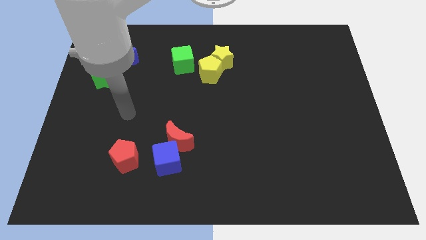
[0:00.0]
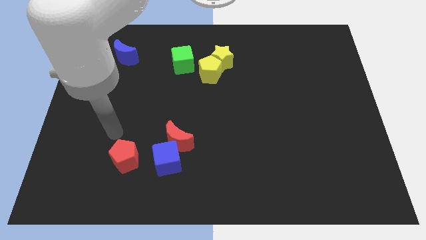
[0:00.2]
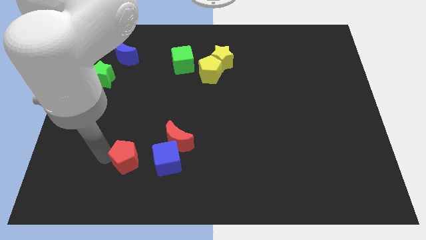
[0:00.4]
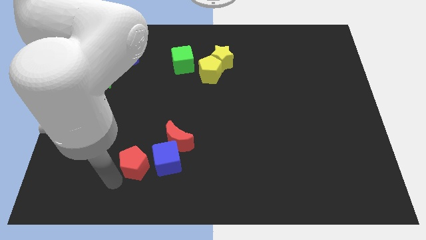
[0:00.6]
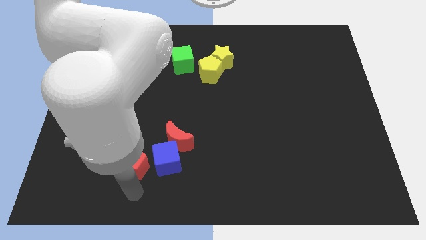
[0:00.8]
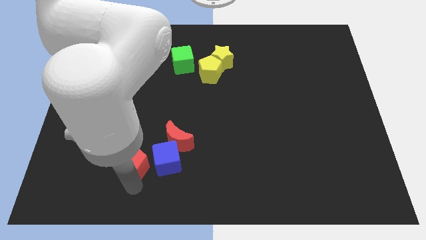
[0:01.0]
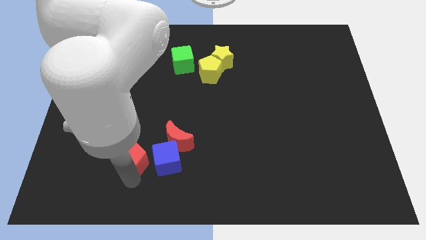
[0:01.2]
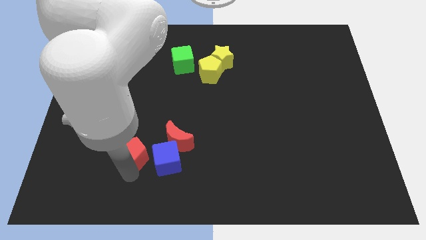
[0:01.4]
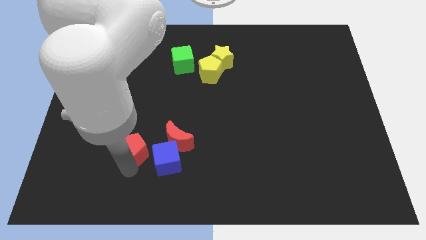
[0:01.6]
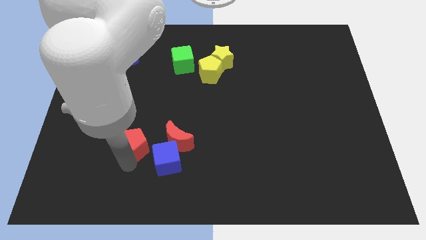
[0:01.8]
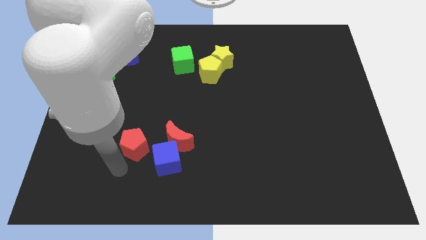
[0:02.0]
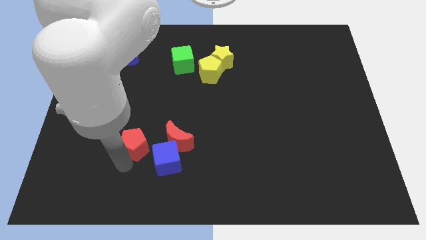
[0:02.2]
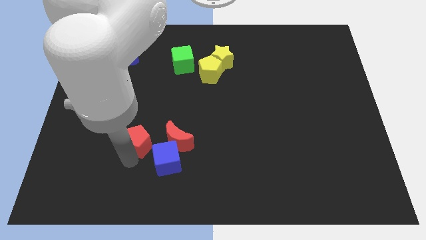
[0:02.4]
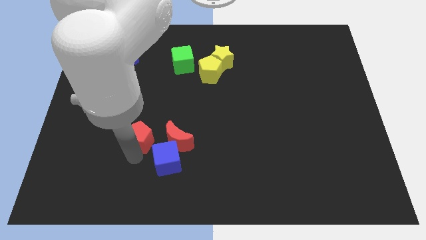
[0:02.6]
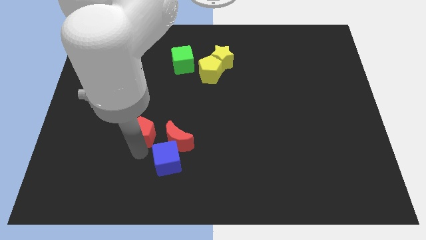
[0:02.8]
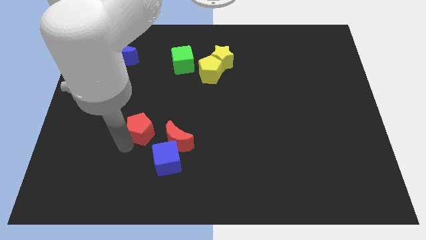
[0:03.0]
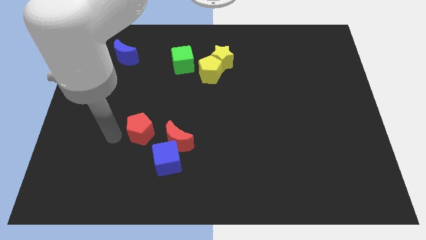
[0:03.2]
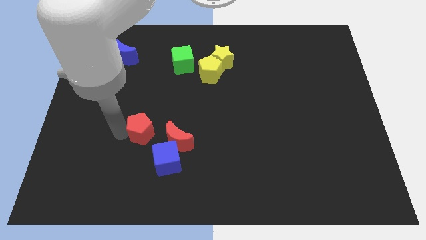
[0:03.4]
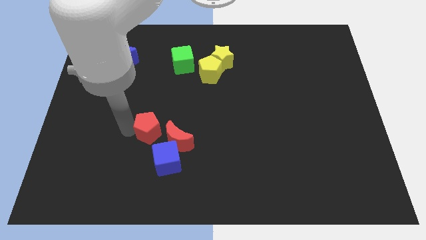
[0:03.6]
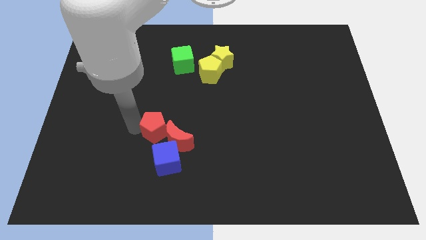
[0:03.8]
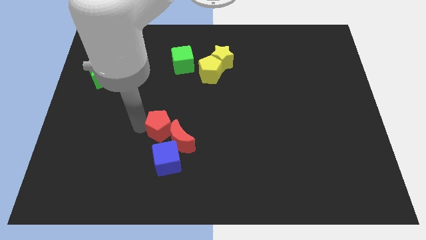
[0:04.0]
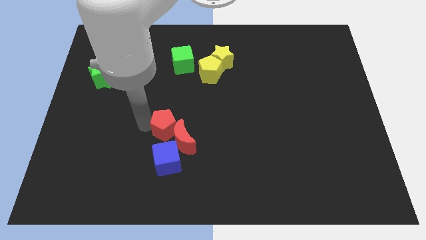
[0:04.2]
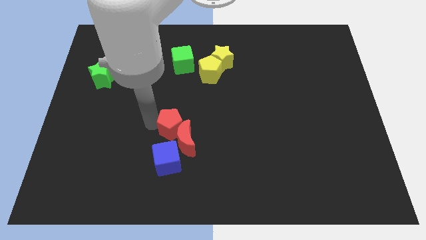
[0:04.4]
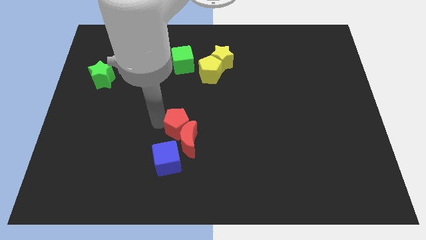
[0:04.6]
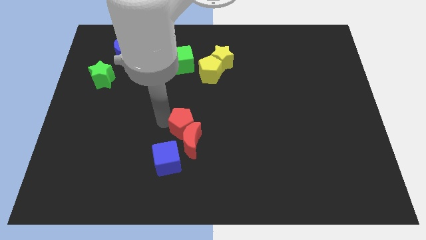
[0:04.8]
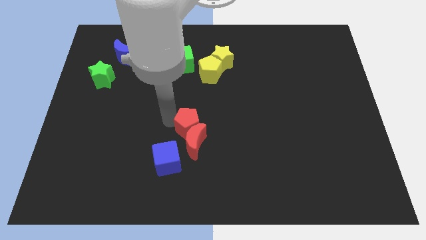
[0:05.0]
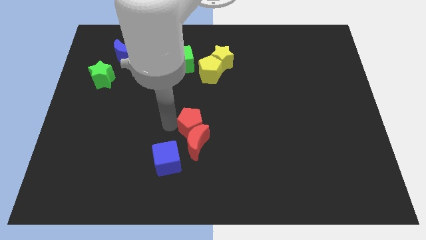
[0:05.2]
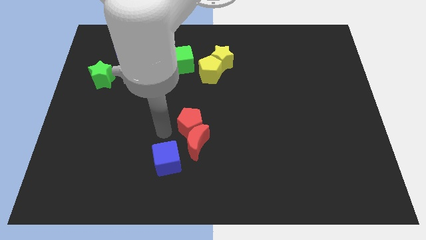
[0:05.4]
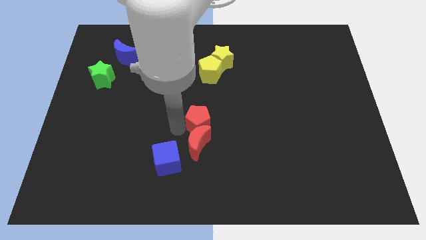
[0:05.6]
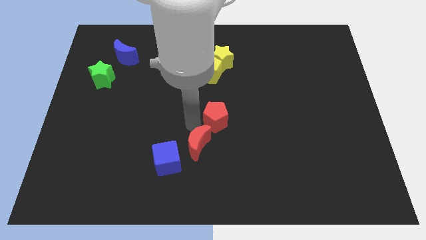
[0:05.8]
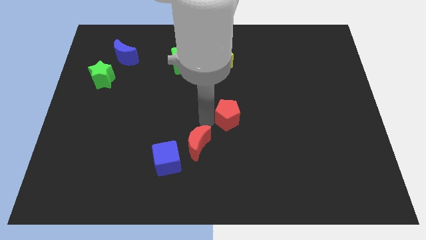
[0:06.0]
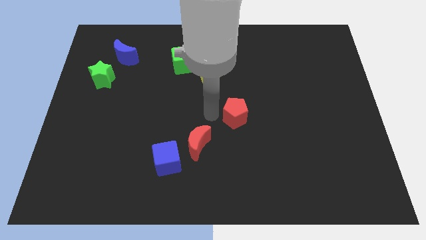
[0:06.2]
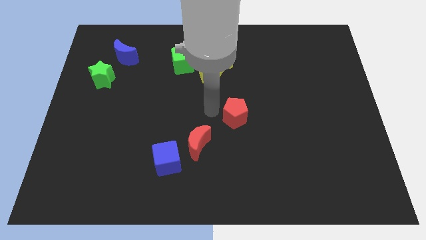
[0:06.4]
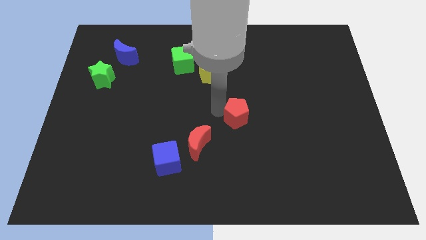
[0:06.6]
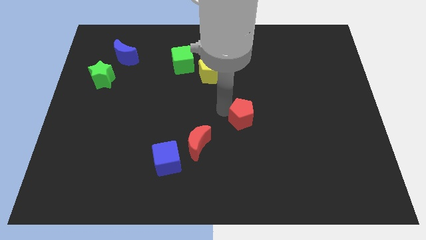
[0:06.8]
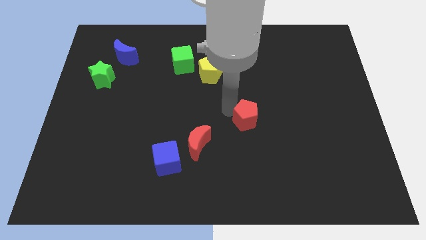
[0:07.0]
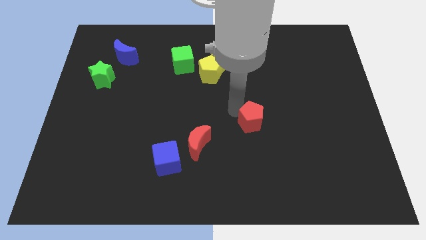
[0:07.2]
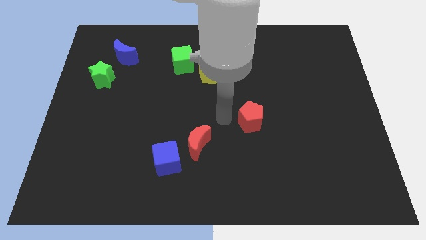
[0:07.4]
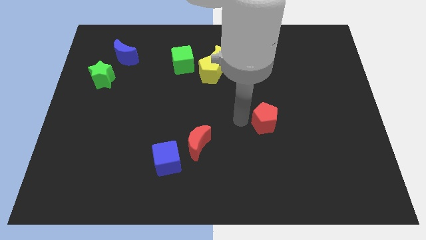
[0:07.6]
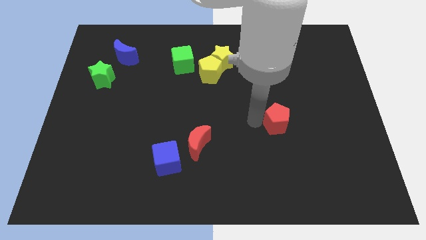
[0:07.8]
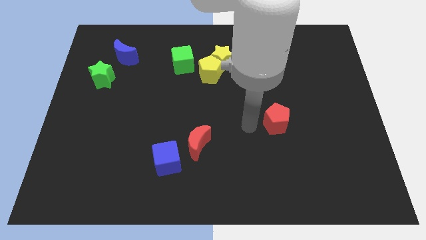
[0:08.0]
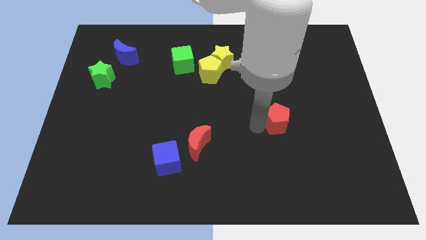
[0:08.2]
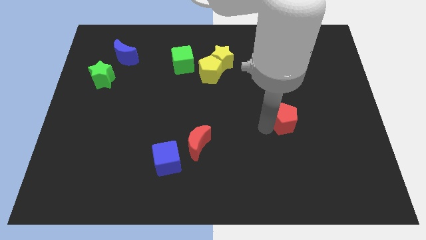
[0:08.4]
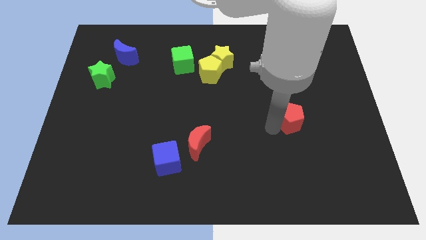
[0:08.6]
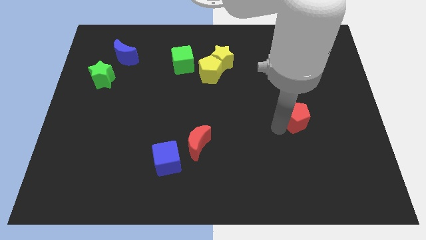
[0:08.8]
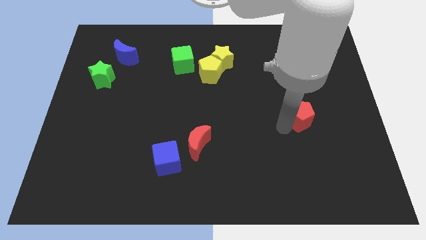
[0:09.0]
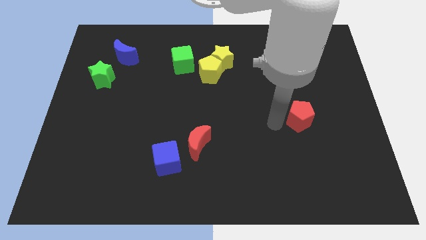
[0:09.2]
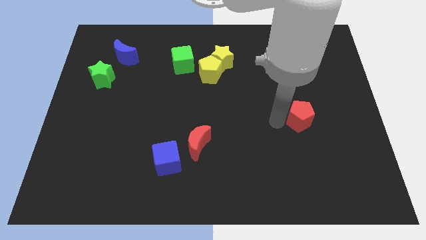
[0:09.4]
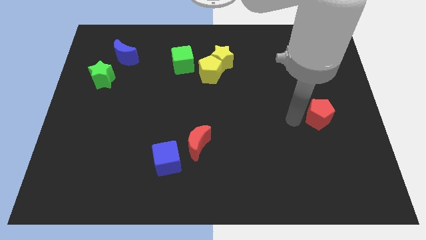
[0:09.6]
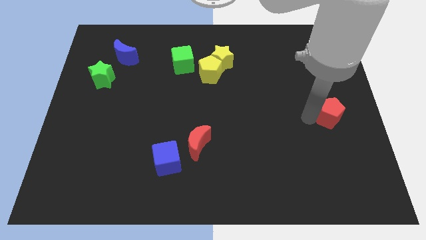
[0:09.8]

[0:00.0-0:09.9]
put the red pentagon to the right side of the board

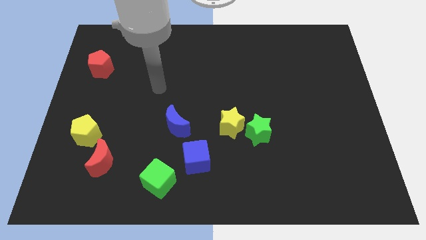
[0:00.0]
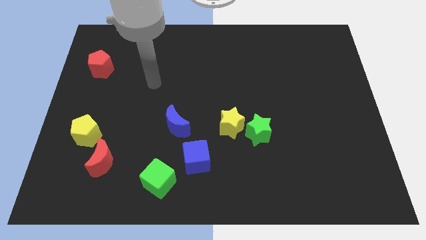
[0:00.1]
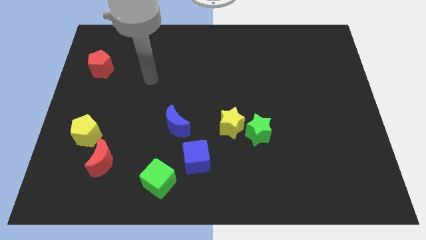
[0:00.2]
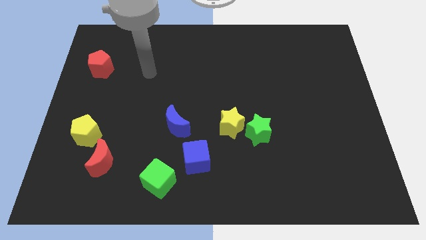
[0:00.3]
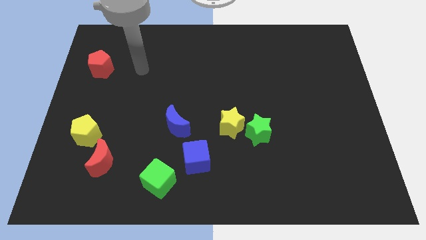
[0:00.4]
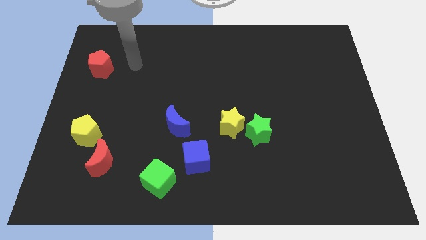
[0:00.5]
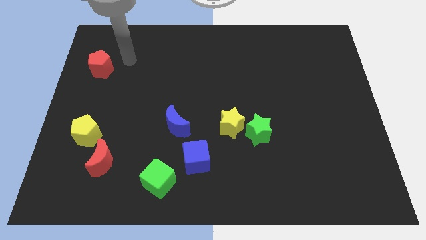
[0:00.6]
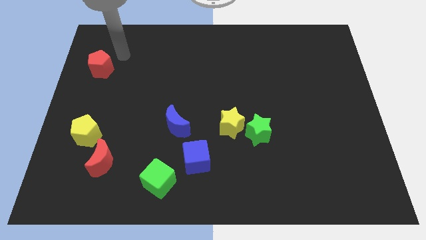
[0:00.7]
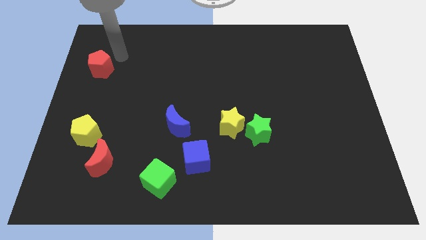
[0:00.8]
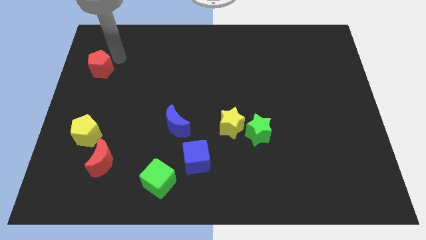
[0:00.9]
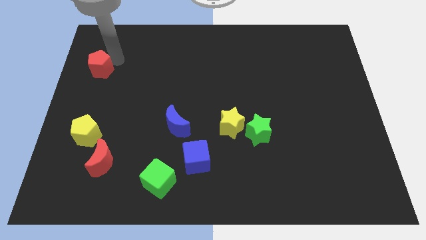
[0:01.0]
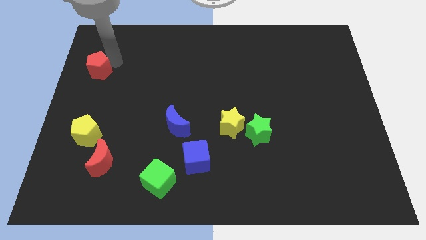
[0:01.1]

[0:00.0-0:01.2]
put the red pentagon to the left side
